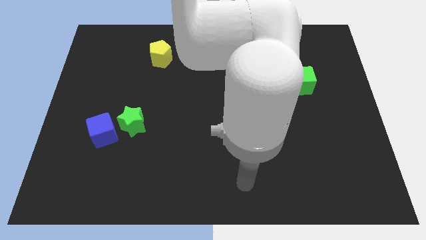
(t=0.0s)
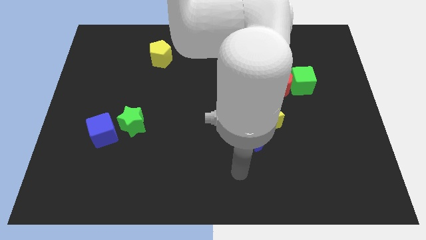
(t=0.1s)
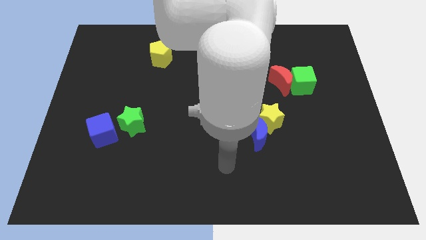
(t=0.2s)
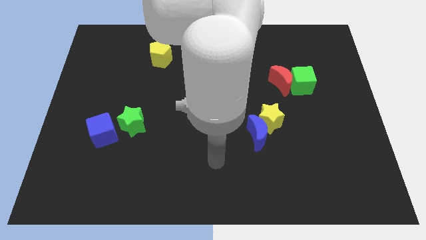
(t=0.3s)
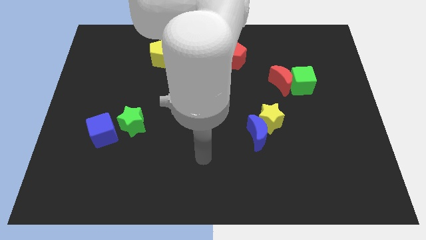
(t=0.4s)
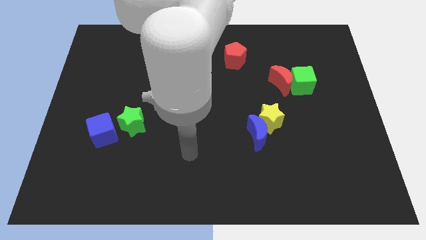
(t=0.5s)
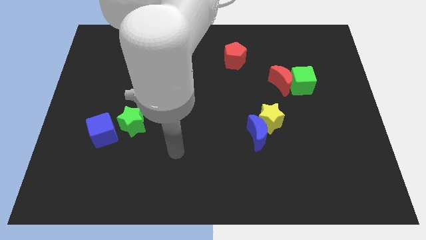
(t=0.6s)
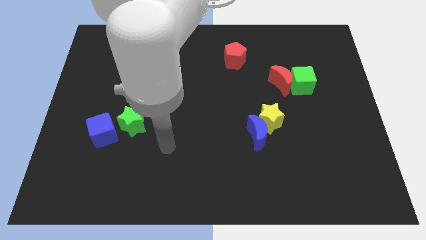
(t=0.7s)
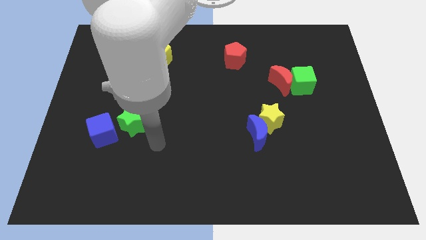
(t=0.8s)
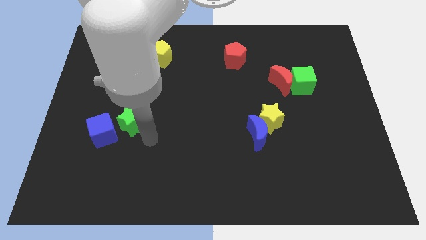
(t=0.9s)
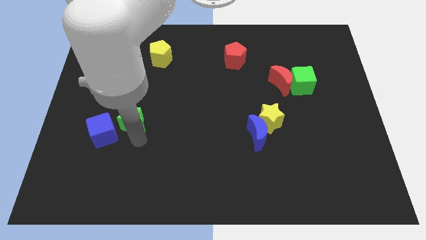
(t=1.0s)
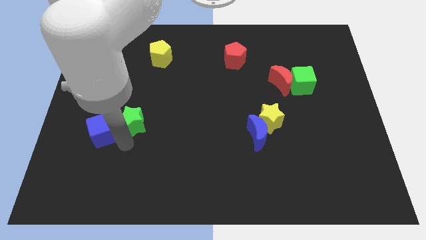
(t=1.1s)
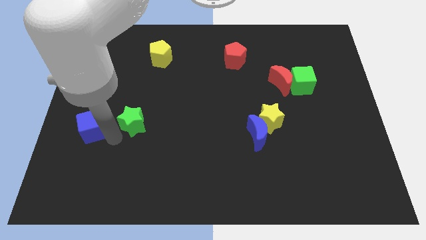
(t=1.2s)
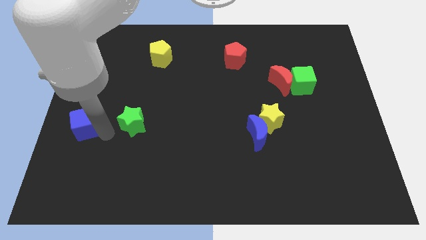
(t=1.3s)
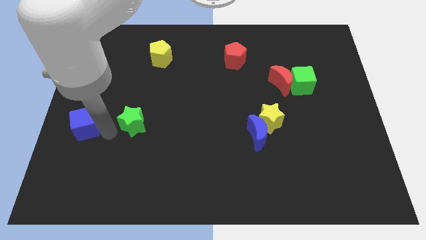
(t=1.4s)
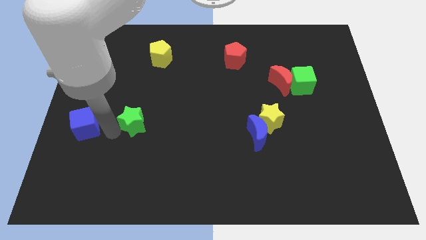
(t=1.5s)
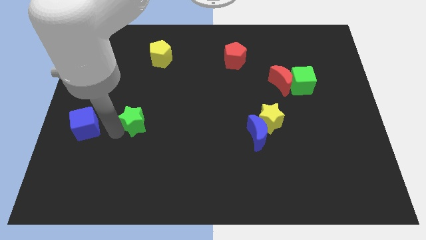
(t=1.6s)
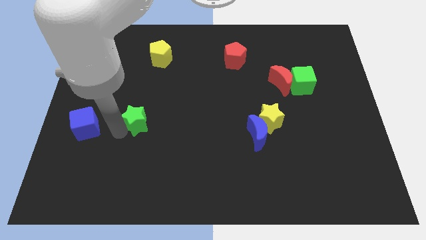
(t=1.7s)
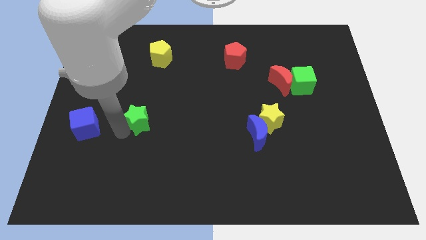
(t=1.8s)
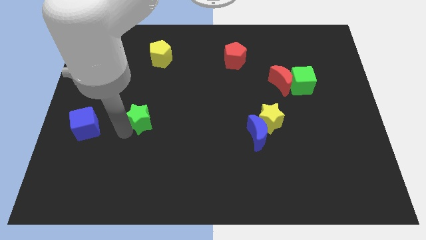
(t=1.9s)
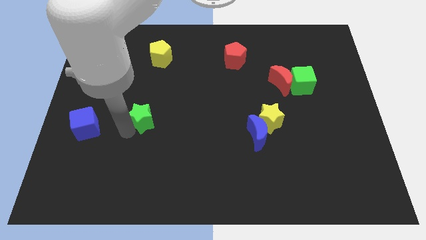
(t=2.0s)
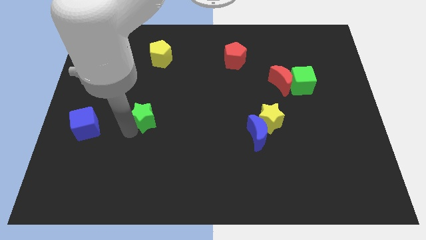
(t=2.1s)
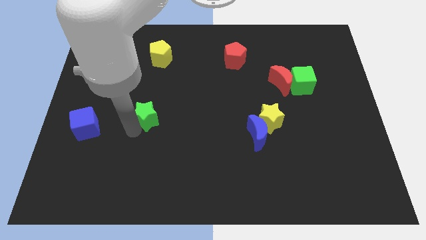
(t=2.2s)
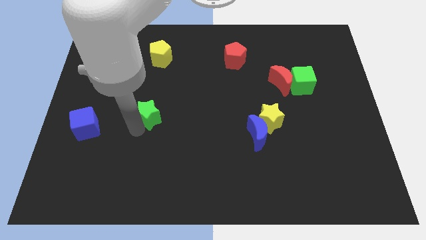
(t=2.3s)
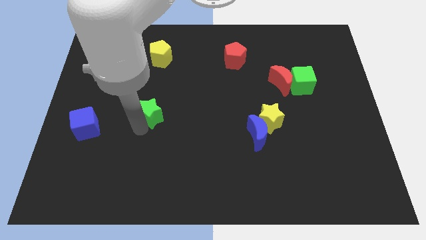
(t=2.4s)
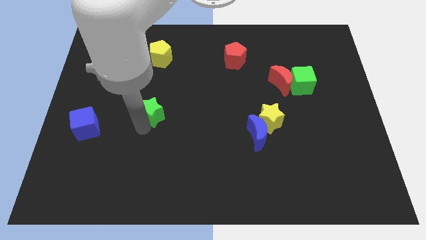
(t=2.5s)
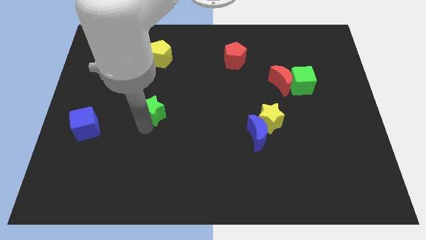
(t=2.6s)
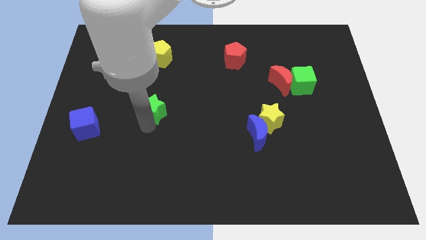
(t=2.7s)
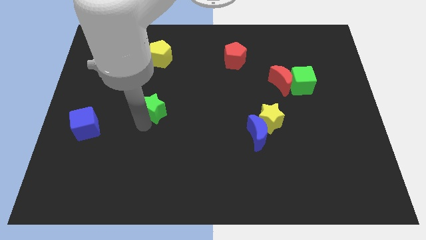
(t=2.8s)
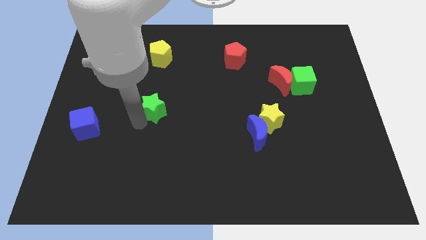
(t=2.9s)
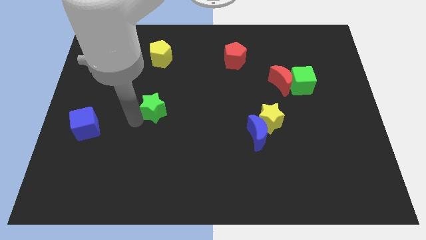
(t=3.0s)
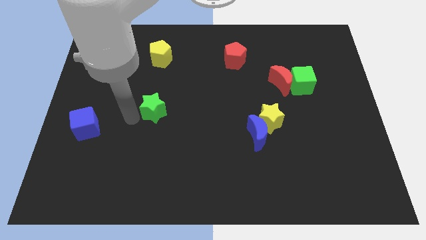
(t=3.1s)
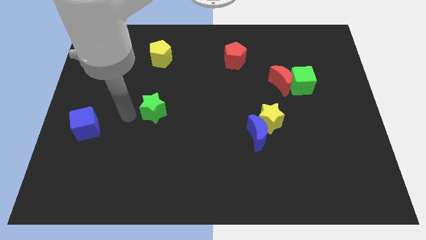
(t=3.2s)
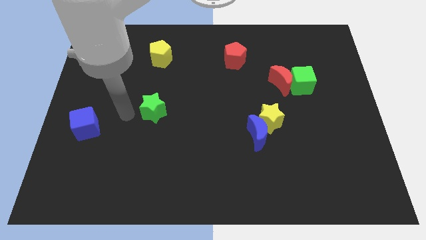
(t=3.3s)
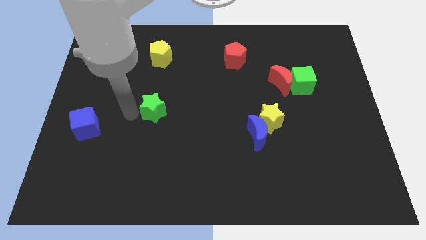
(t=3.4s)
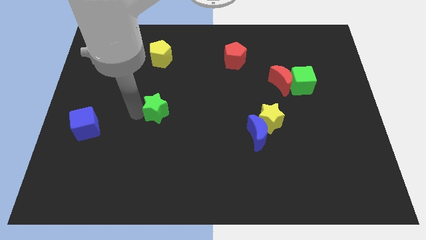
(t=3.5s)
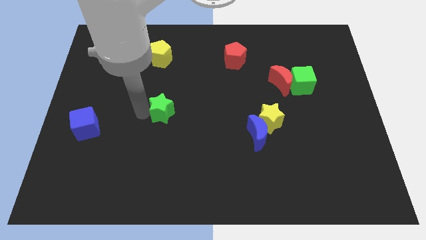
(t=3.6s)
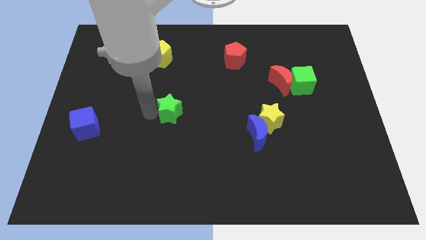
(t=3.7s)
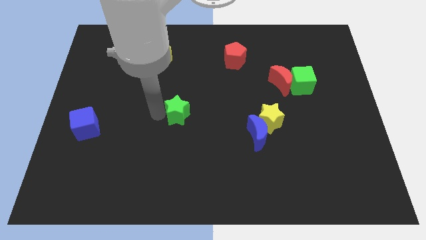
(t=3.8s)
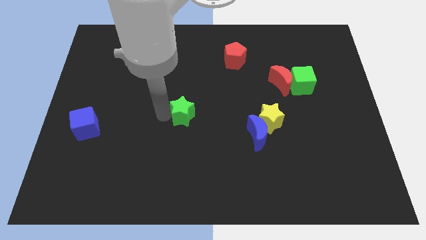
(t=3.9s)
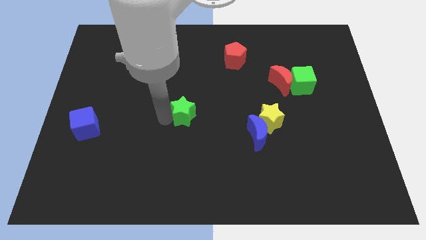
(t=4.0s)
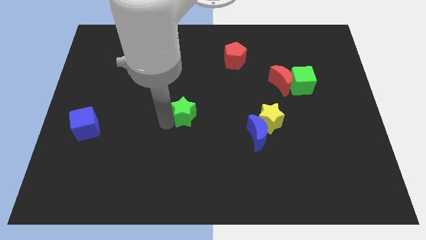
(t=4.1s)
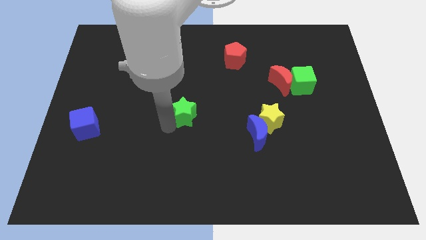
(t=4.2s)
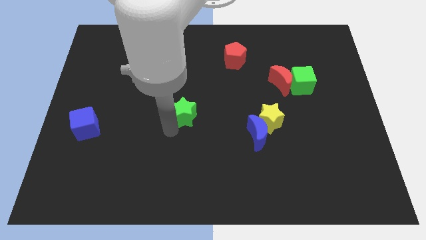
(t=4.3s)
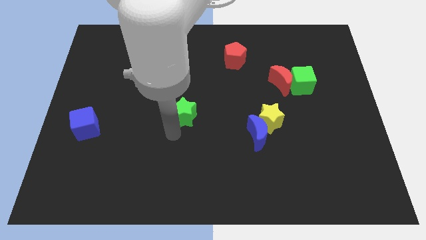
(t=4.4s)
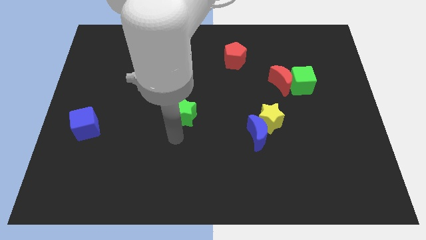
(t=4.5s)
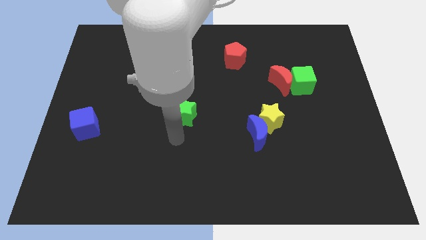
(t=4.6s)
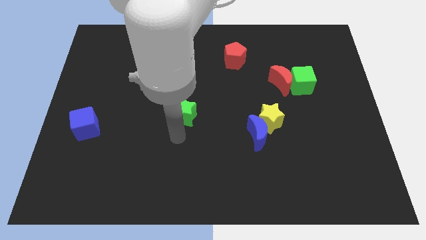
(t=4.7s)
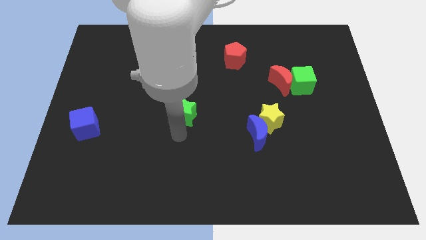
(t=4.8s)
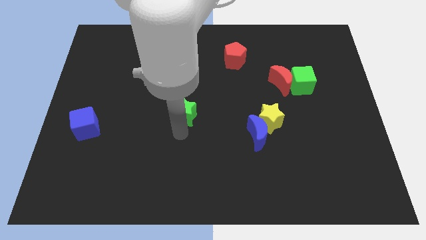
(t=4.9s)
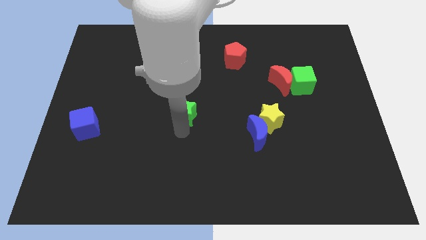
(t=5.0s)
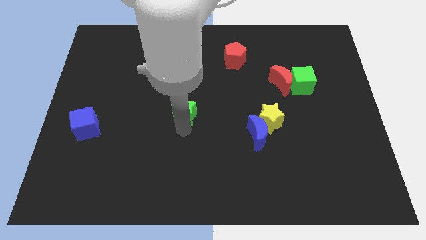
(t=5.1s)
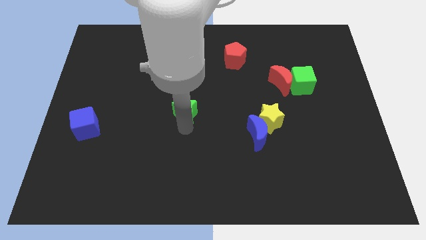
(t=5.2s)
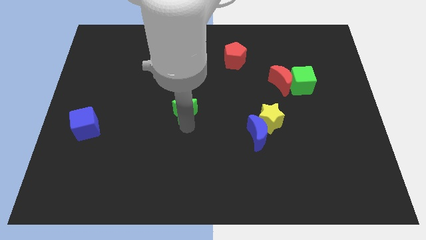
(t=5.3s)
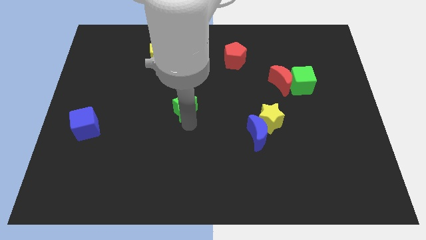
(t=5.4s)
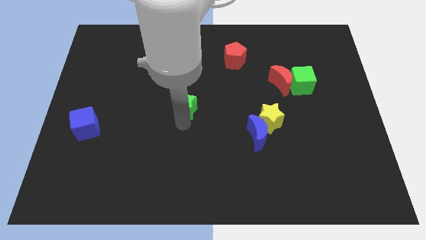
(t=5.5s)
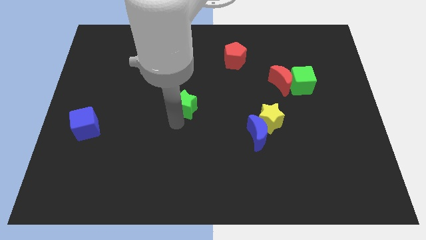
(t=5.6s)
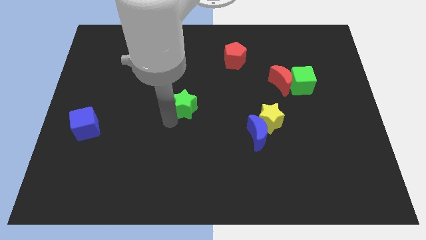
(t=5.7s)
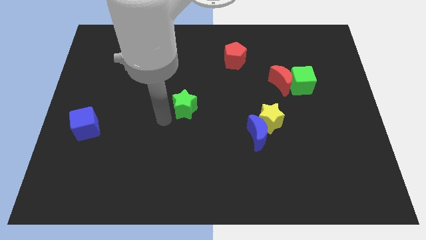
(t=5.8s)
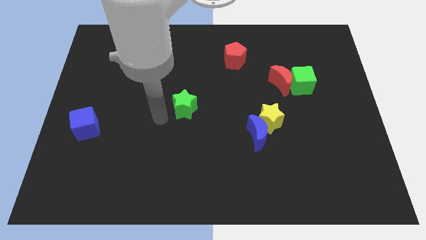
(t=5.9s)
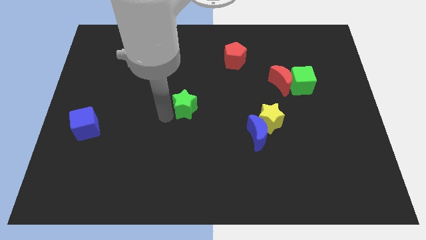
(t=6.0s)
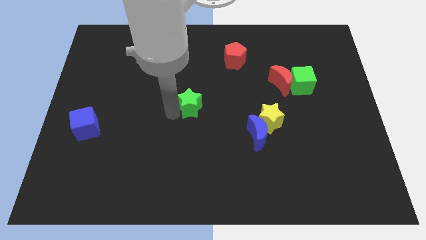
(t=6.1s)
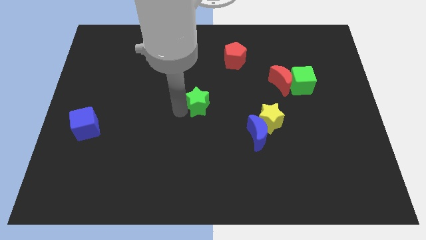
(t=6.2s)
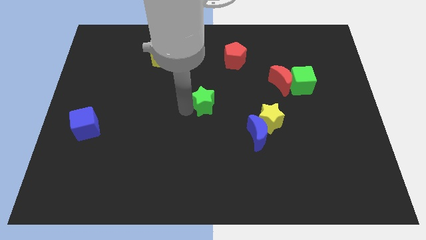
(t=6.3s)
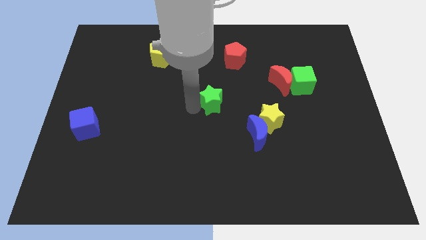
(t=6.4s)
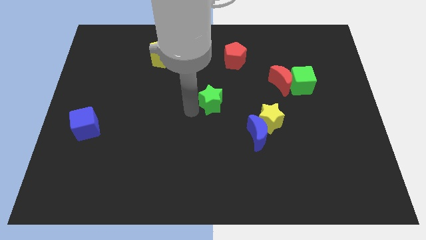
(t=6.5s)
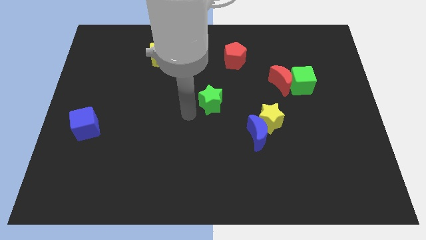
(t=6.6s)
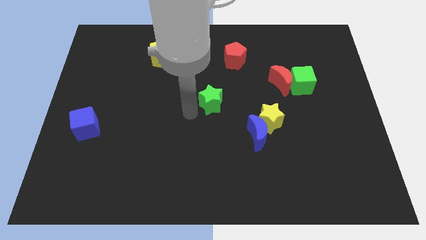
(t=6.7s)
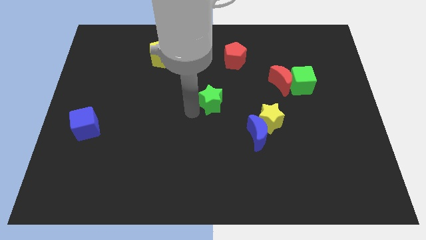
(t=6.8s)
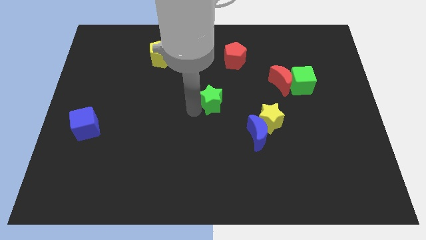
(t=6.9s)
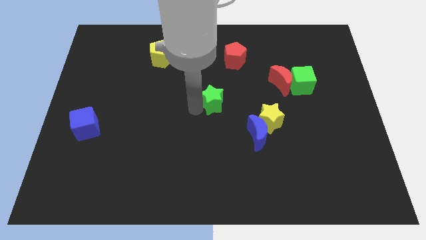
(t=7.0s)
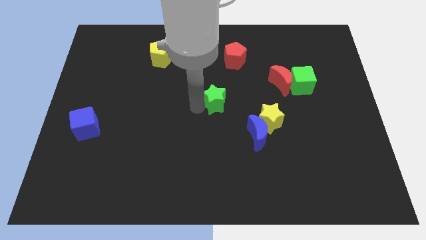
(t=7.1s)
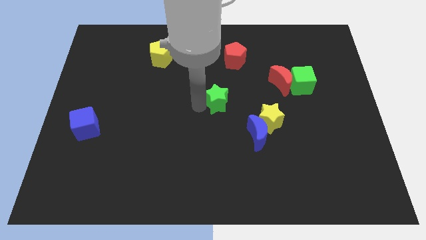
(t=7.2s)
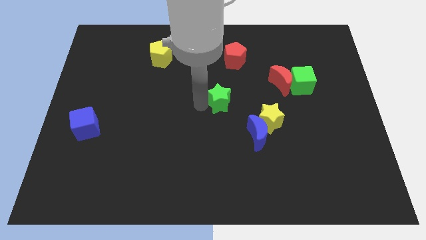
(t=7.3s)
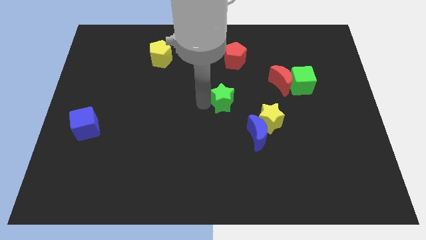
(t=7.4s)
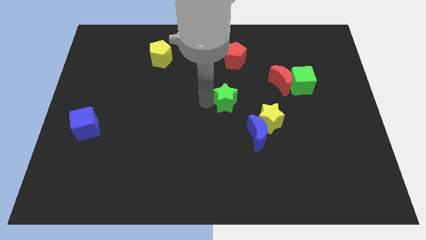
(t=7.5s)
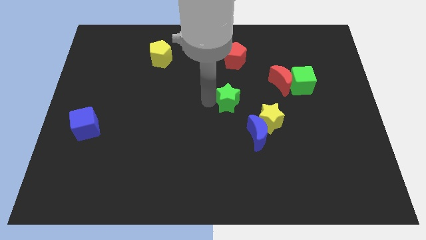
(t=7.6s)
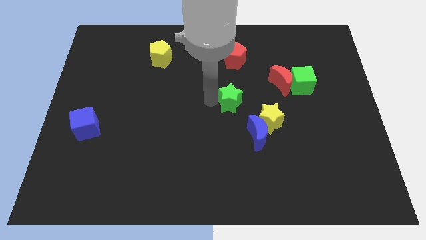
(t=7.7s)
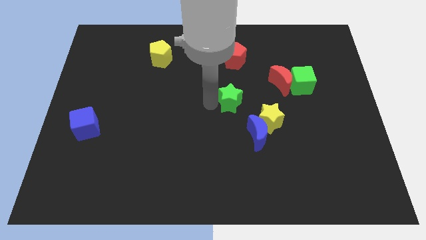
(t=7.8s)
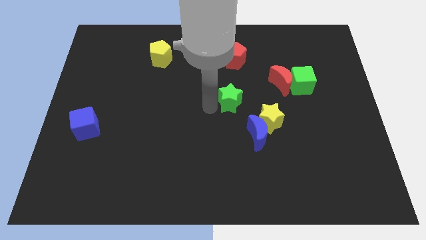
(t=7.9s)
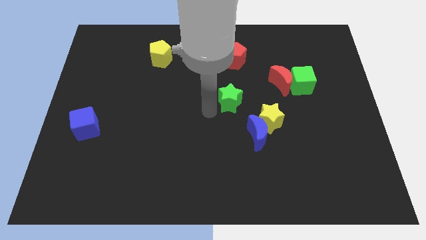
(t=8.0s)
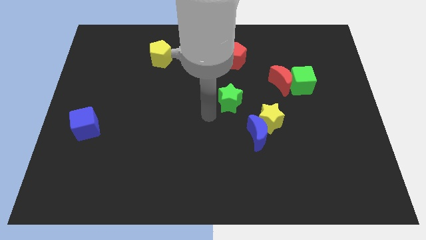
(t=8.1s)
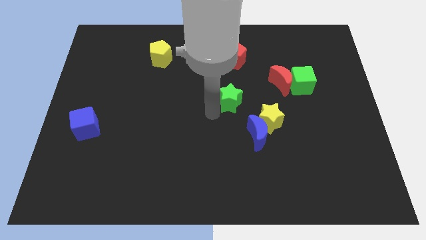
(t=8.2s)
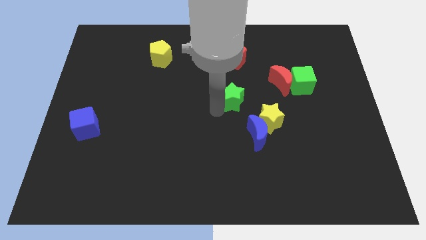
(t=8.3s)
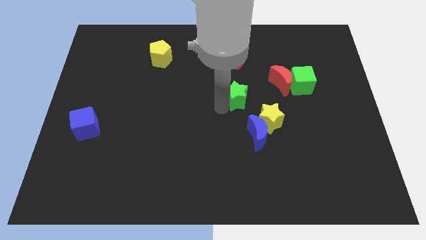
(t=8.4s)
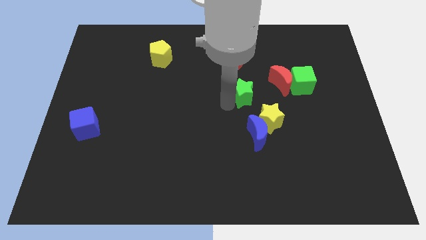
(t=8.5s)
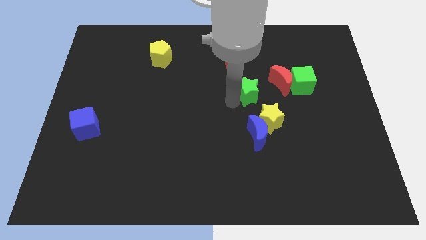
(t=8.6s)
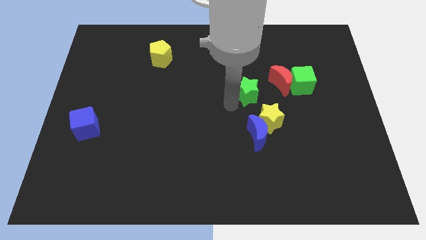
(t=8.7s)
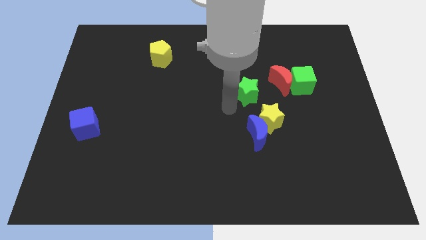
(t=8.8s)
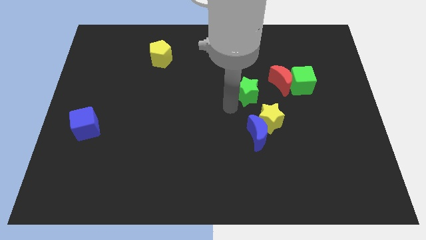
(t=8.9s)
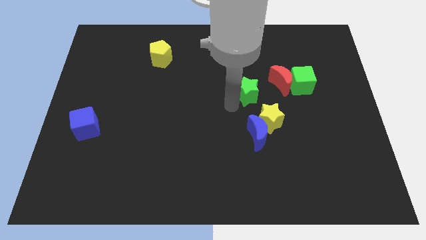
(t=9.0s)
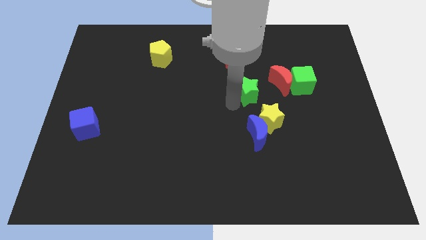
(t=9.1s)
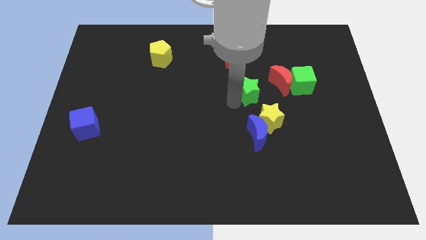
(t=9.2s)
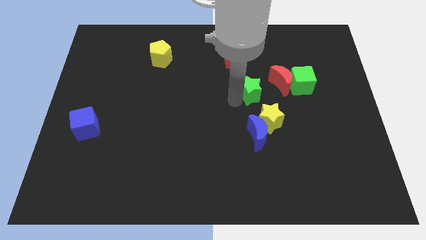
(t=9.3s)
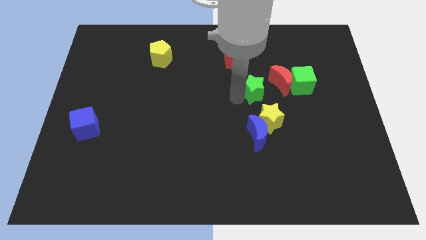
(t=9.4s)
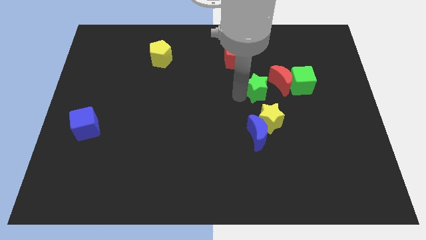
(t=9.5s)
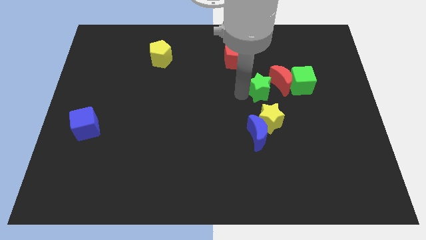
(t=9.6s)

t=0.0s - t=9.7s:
push the green star towards the red moon
